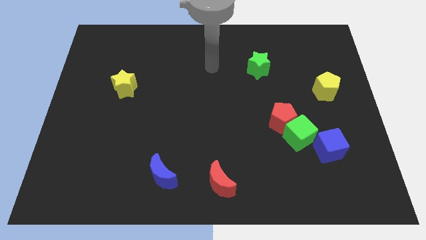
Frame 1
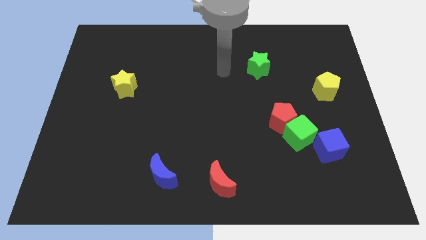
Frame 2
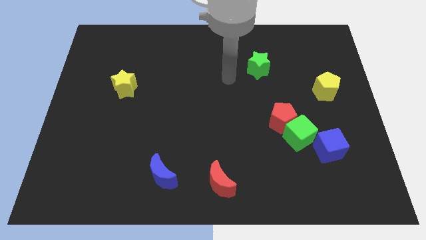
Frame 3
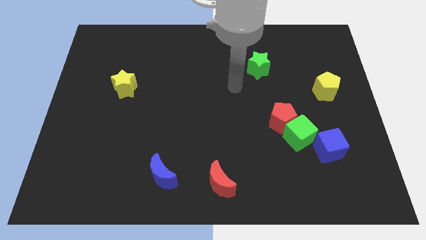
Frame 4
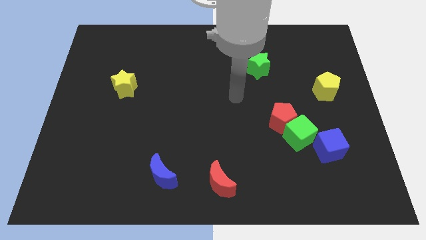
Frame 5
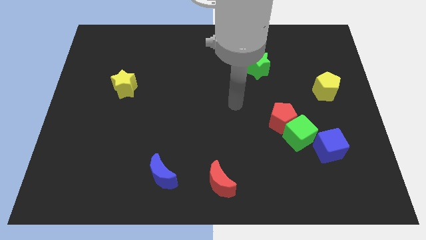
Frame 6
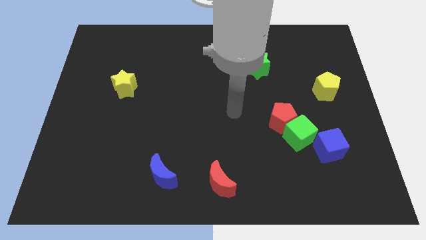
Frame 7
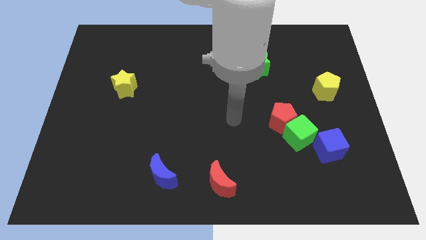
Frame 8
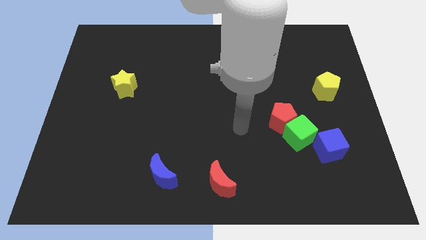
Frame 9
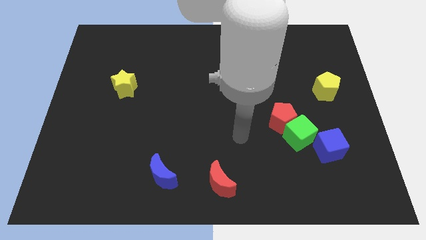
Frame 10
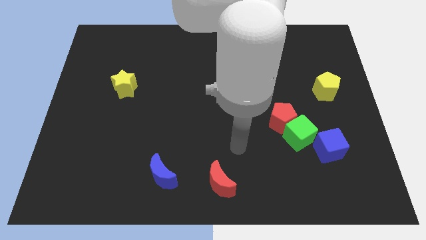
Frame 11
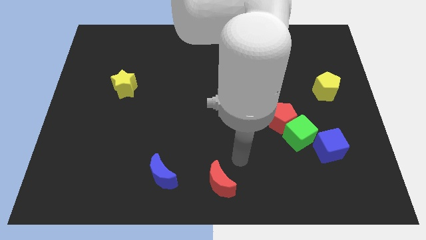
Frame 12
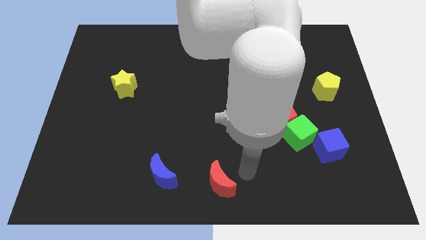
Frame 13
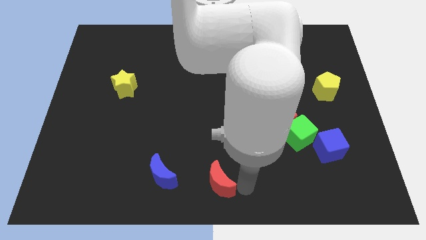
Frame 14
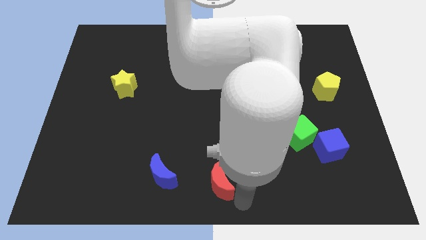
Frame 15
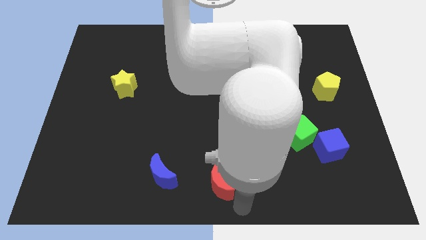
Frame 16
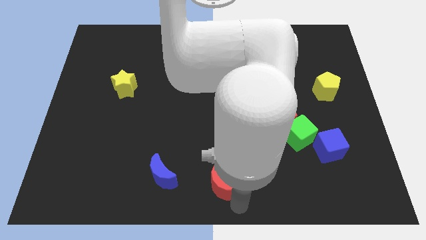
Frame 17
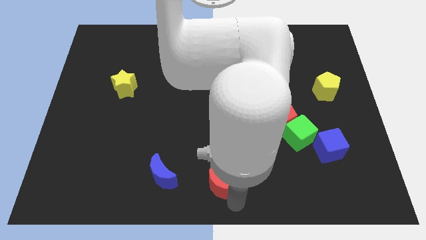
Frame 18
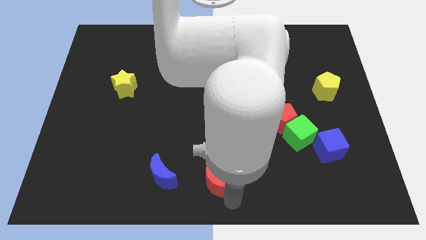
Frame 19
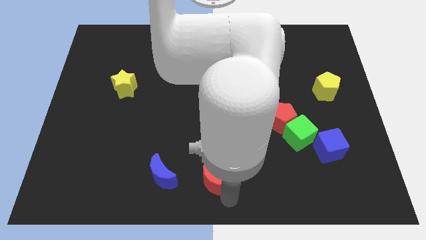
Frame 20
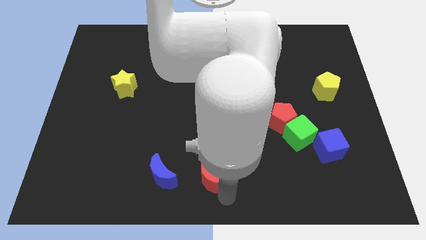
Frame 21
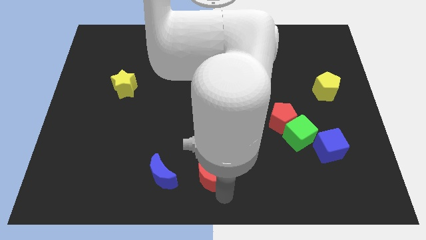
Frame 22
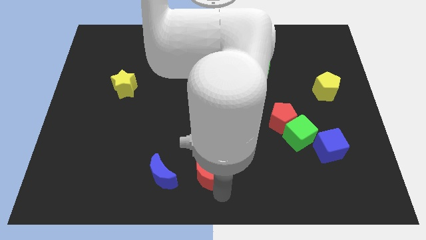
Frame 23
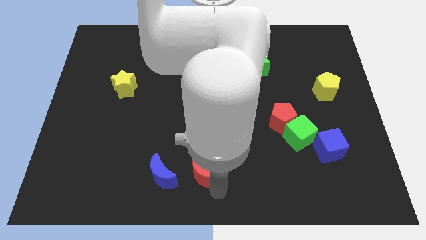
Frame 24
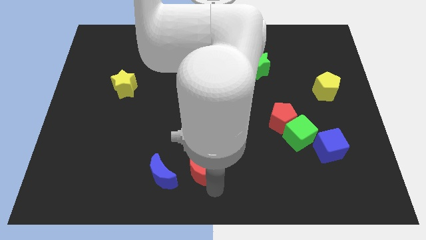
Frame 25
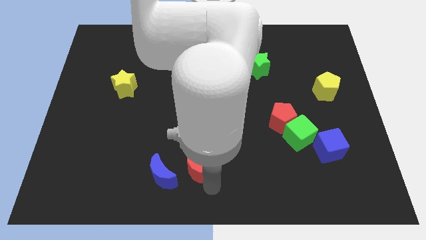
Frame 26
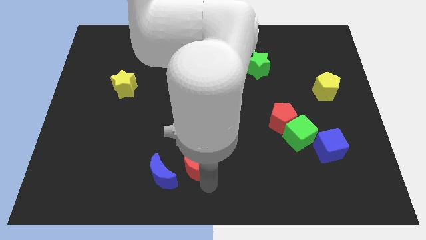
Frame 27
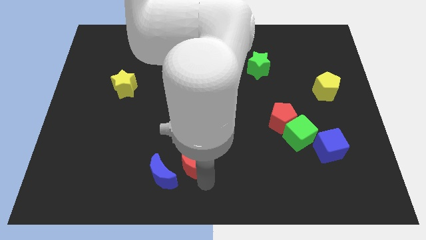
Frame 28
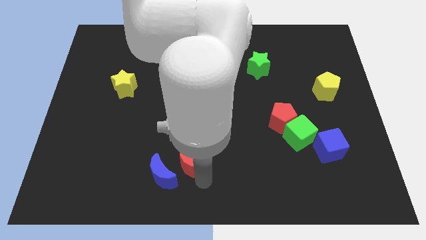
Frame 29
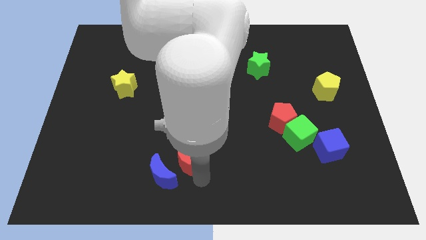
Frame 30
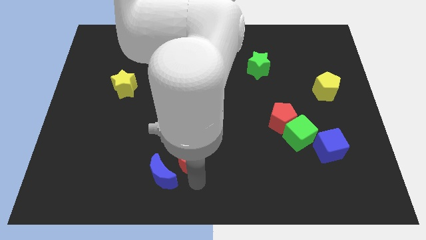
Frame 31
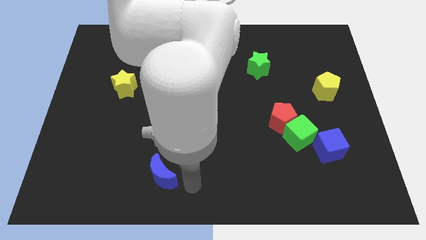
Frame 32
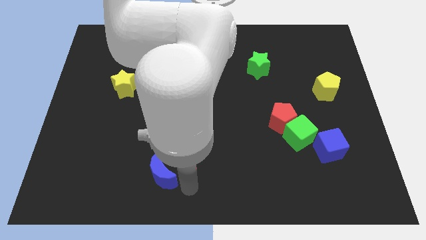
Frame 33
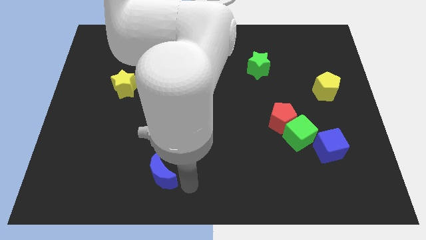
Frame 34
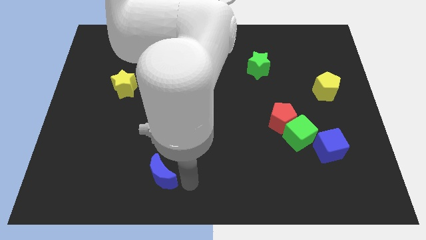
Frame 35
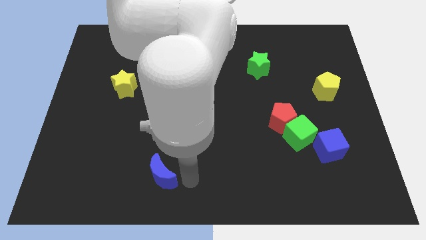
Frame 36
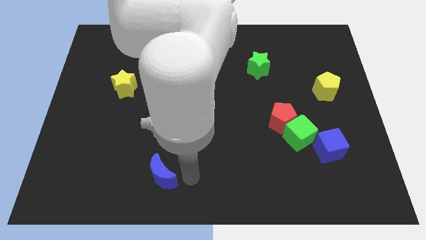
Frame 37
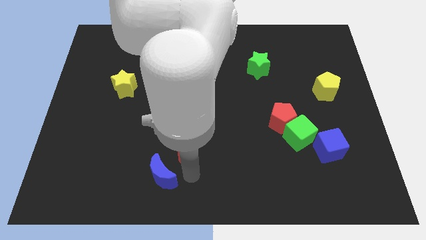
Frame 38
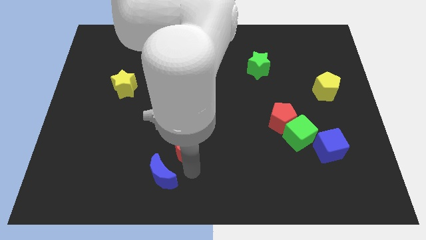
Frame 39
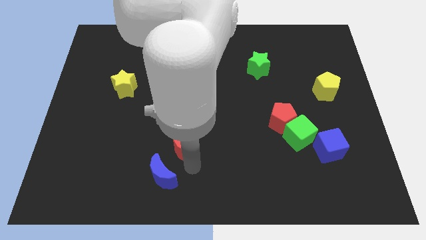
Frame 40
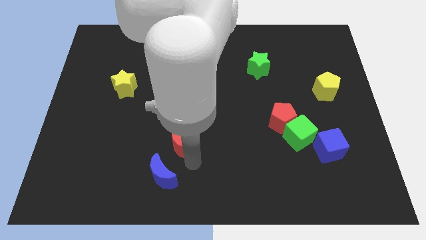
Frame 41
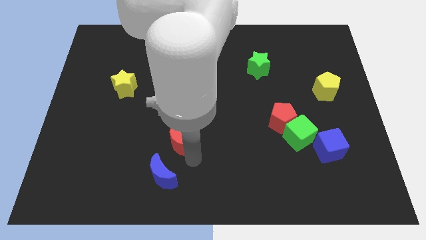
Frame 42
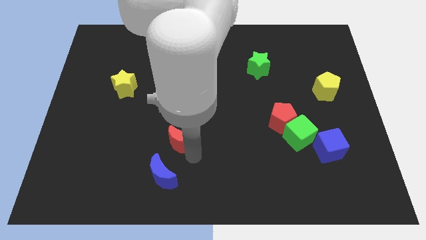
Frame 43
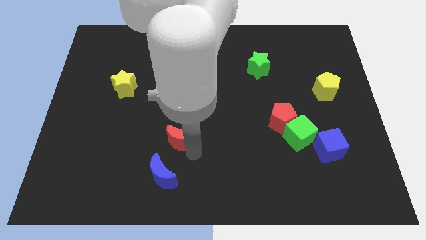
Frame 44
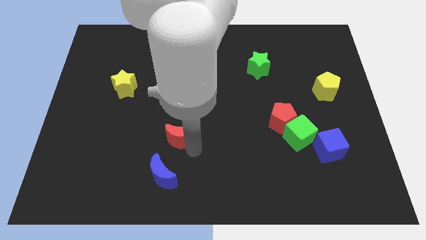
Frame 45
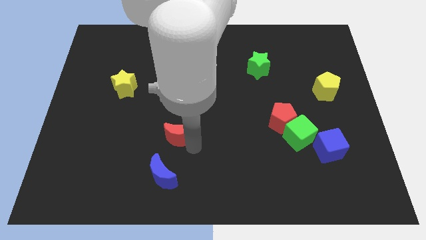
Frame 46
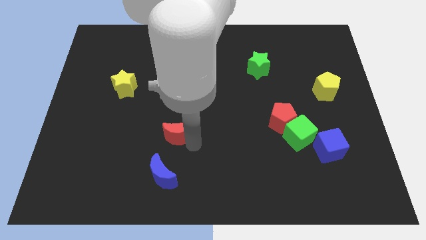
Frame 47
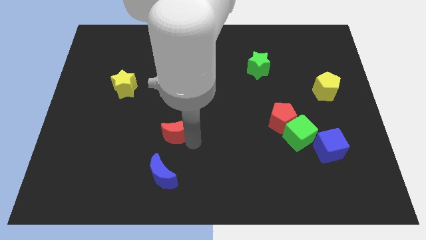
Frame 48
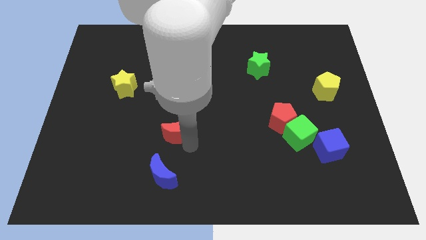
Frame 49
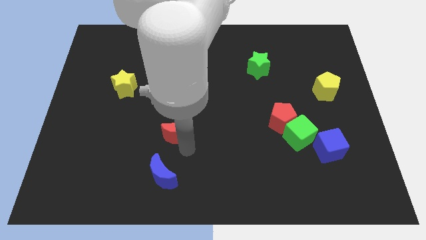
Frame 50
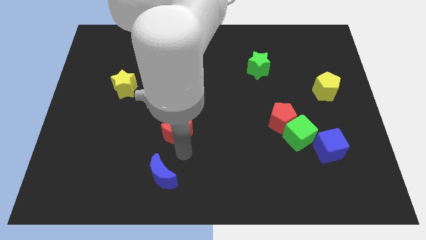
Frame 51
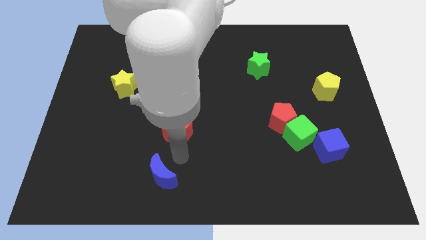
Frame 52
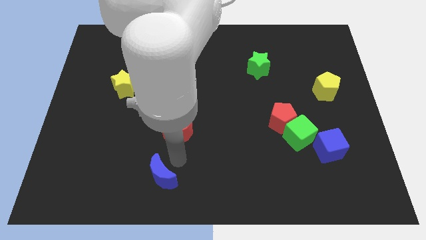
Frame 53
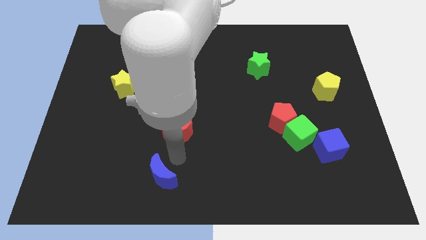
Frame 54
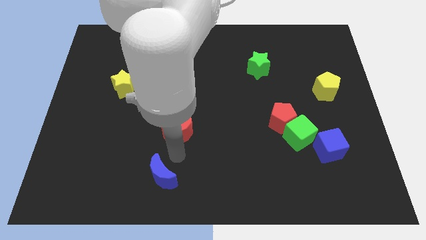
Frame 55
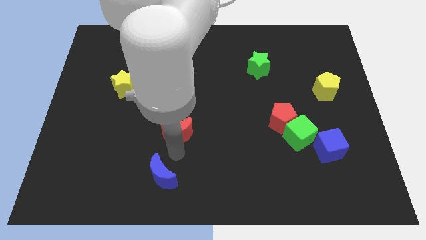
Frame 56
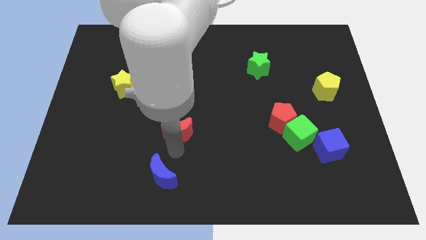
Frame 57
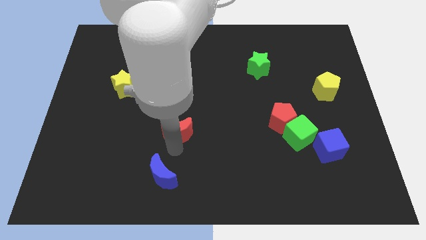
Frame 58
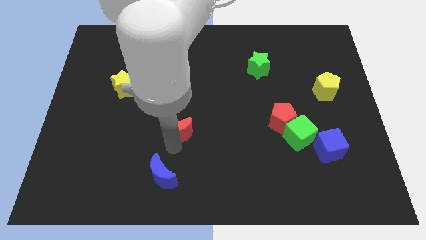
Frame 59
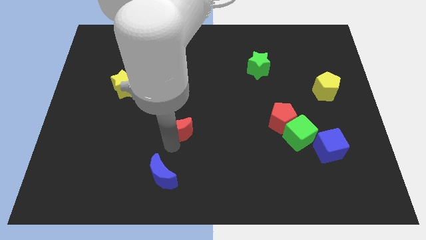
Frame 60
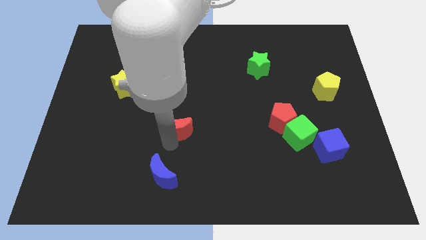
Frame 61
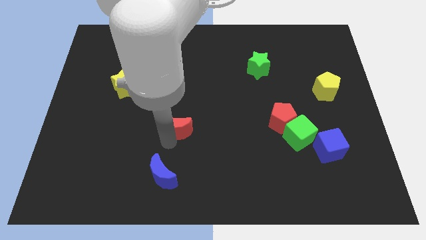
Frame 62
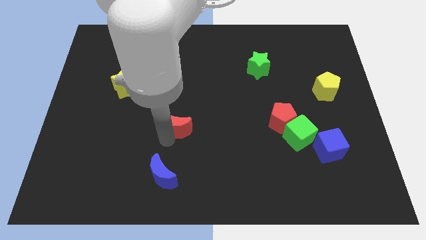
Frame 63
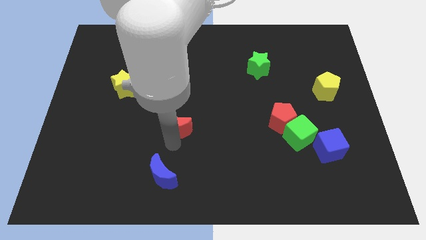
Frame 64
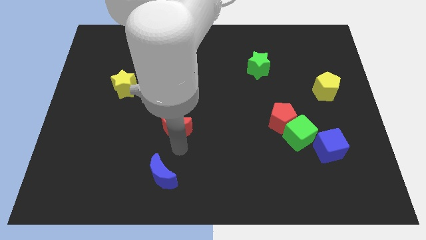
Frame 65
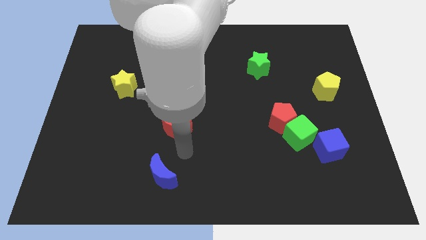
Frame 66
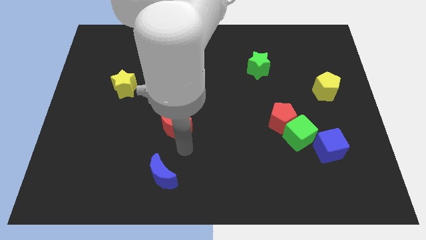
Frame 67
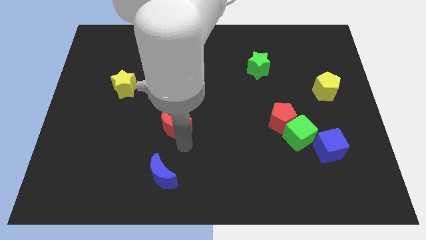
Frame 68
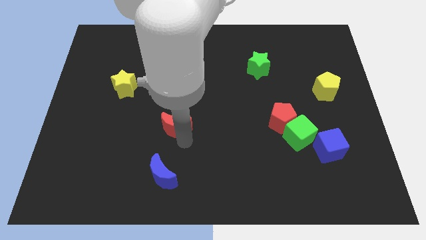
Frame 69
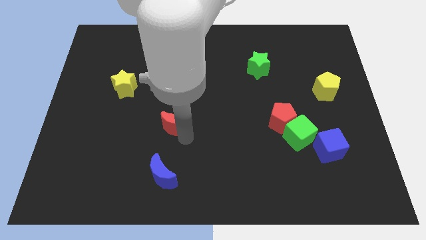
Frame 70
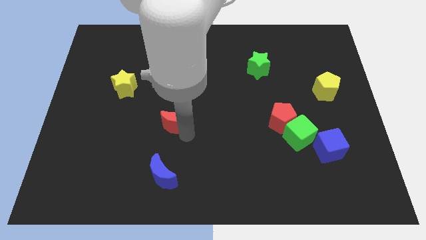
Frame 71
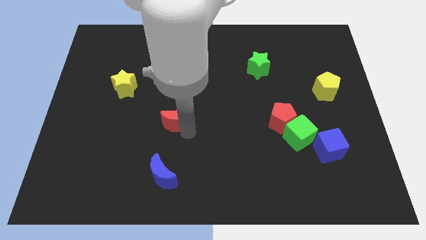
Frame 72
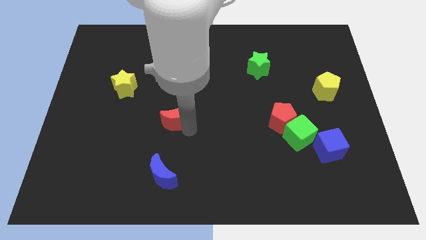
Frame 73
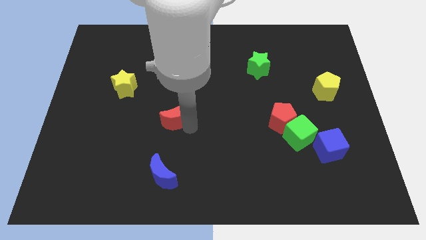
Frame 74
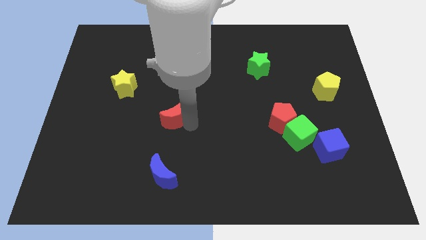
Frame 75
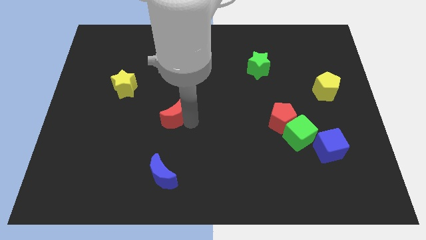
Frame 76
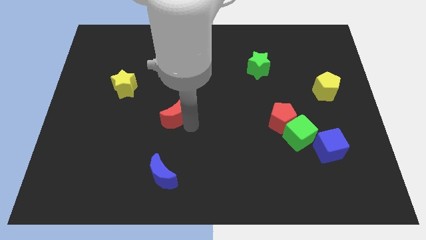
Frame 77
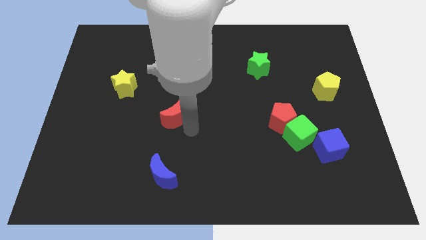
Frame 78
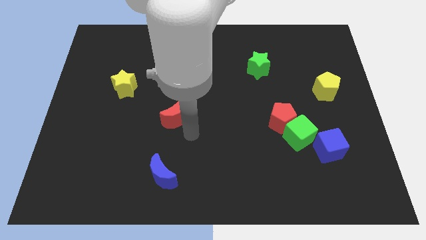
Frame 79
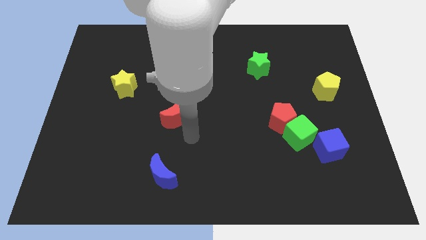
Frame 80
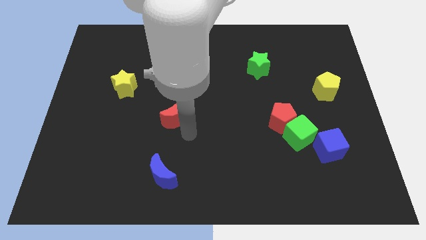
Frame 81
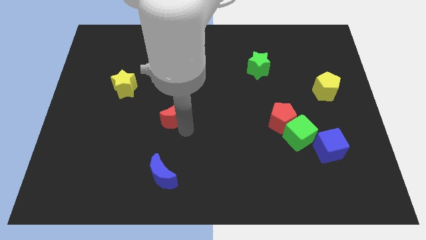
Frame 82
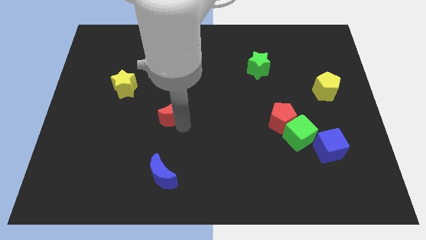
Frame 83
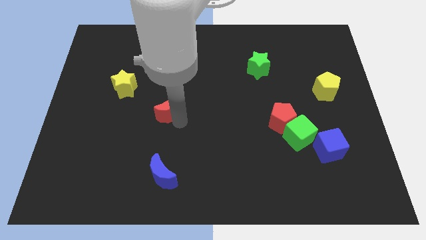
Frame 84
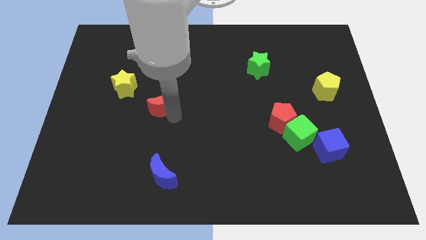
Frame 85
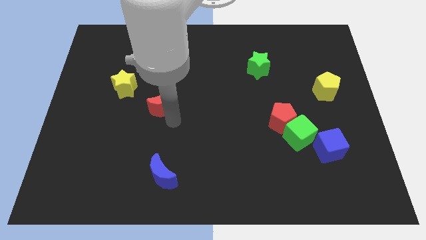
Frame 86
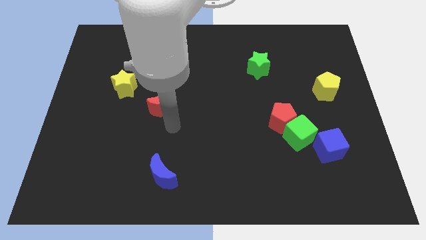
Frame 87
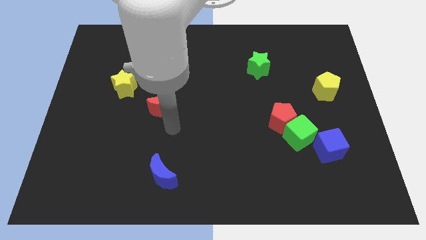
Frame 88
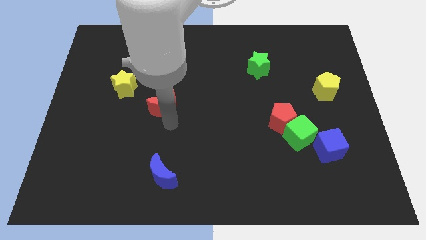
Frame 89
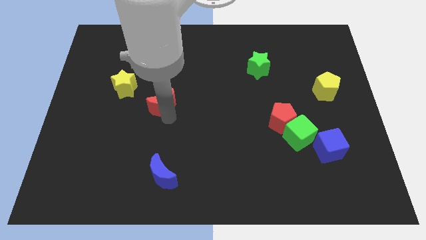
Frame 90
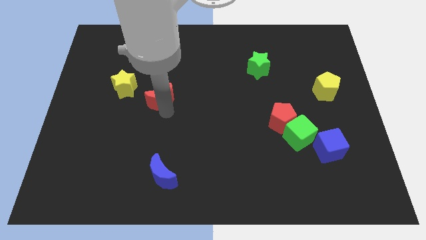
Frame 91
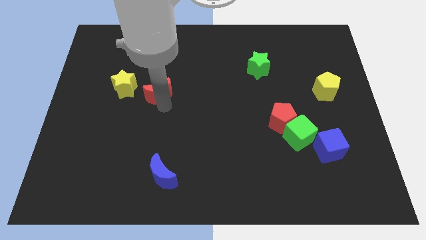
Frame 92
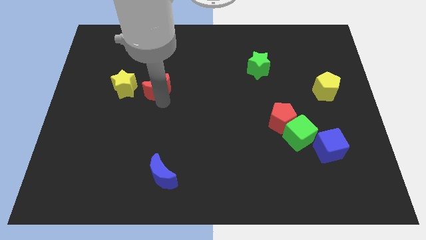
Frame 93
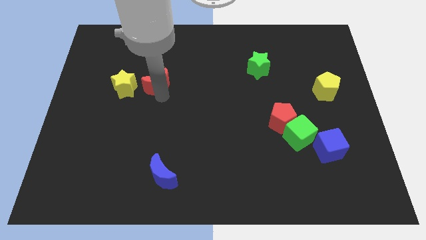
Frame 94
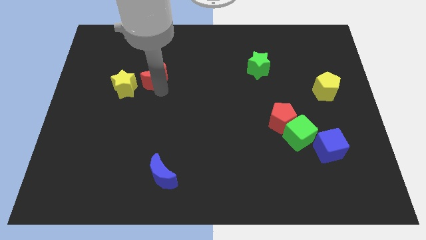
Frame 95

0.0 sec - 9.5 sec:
move the red moon to the top right of the yellow star
